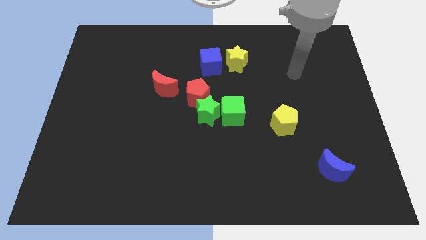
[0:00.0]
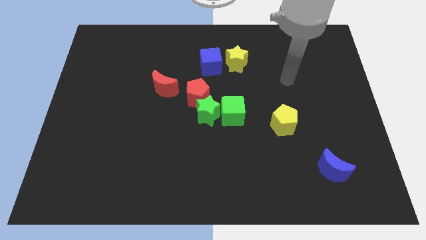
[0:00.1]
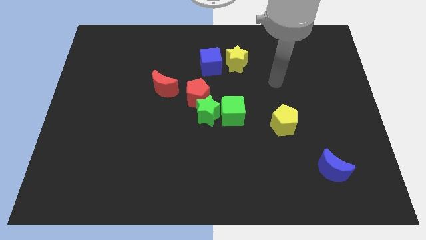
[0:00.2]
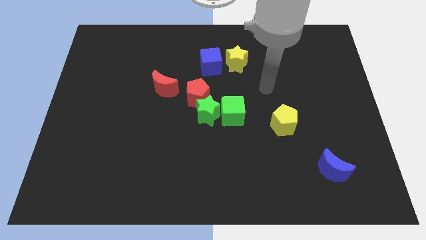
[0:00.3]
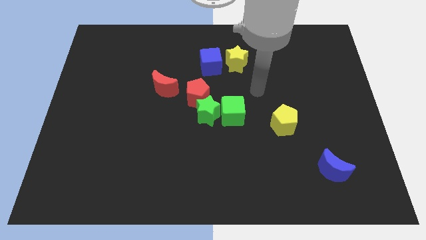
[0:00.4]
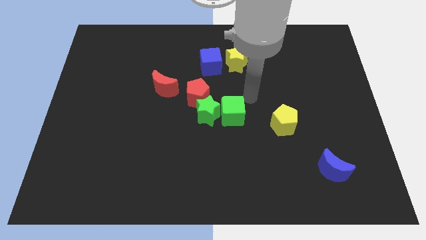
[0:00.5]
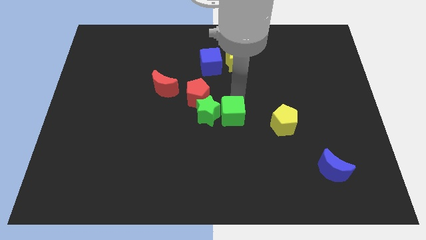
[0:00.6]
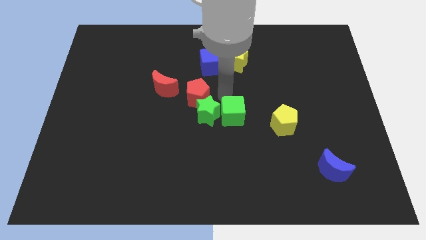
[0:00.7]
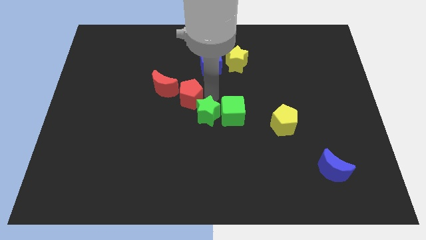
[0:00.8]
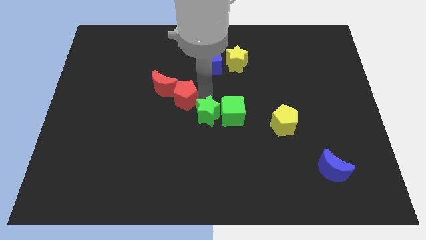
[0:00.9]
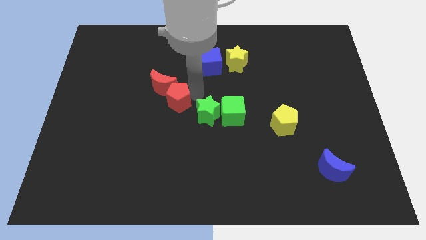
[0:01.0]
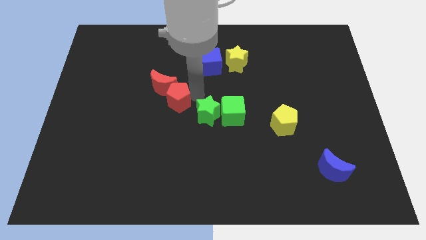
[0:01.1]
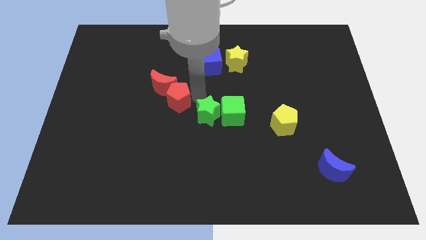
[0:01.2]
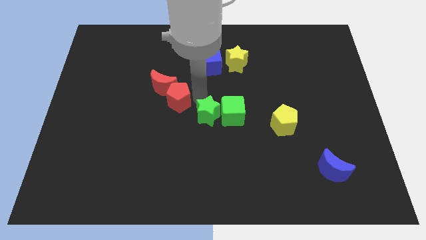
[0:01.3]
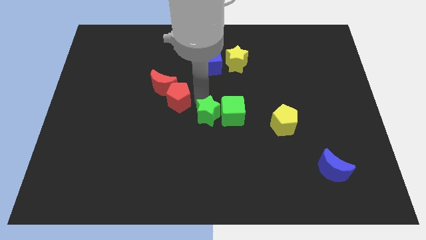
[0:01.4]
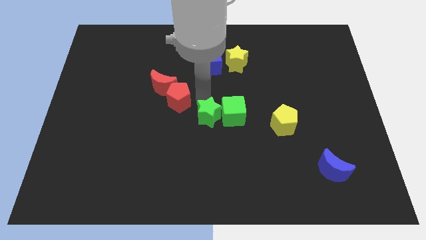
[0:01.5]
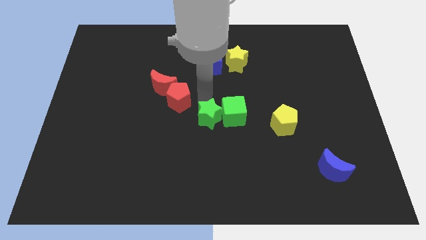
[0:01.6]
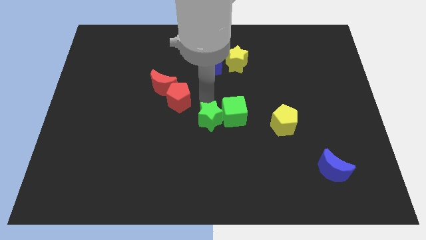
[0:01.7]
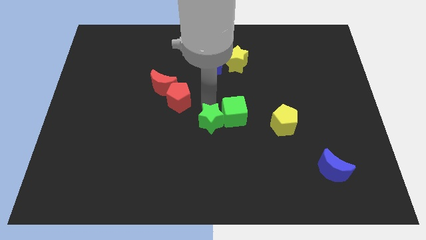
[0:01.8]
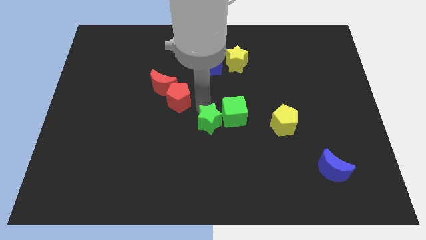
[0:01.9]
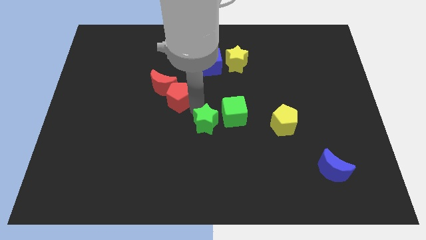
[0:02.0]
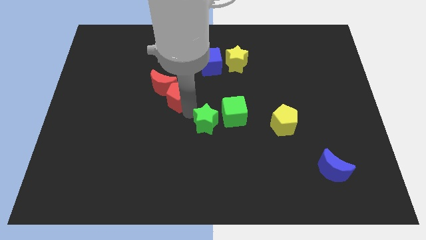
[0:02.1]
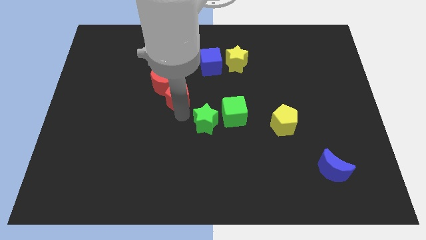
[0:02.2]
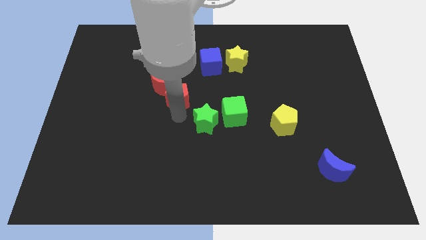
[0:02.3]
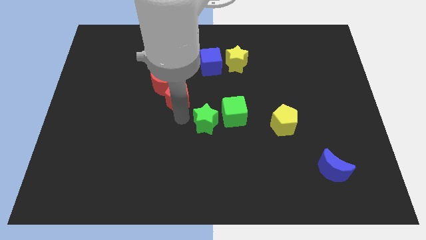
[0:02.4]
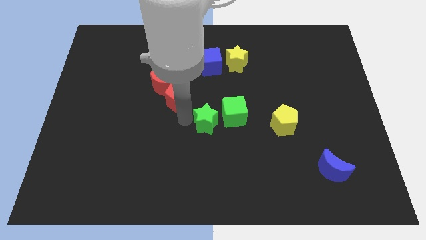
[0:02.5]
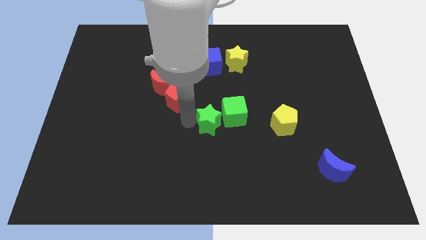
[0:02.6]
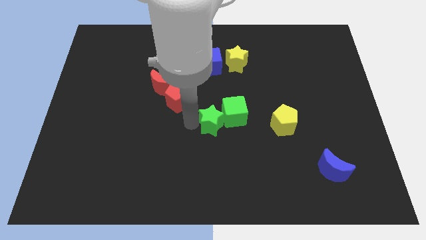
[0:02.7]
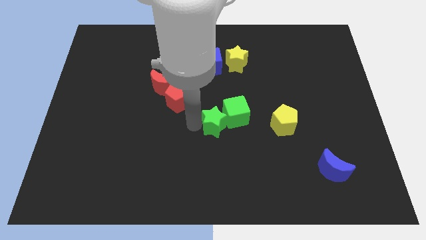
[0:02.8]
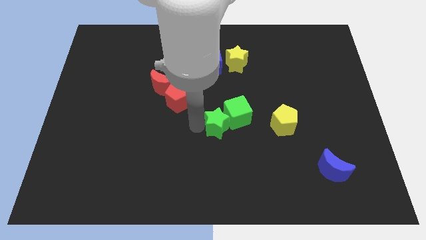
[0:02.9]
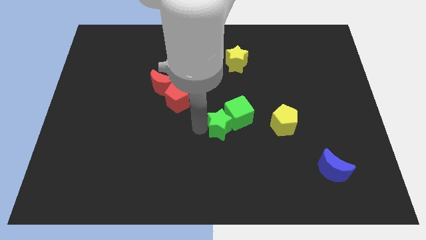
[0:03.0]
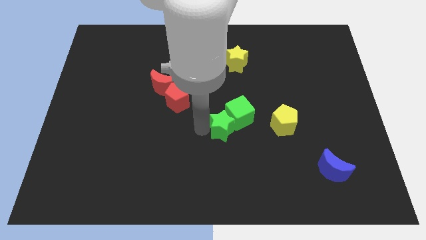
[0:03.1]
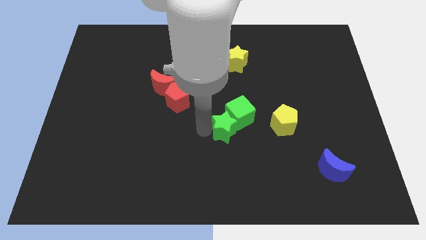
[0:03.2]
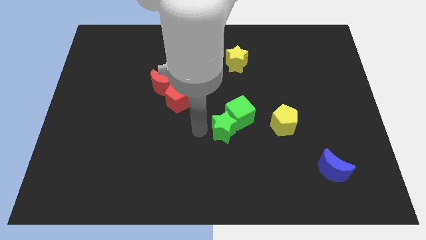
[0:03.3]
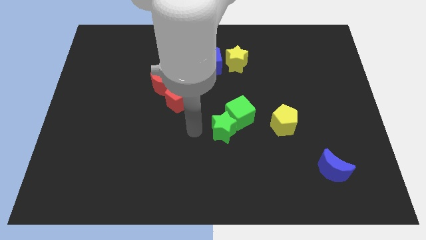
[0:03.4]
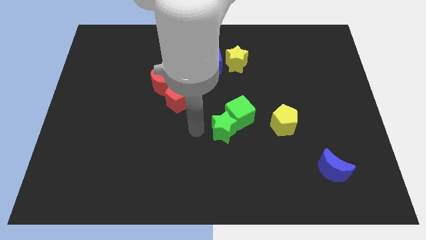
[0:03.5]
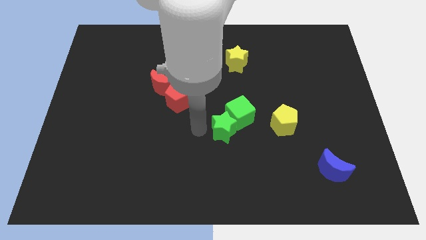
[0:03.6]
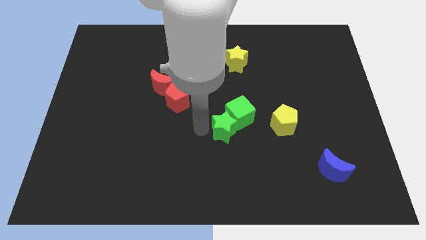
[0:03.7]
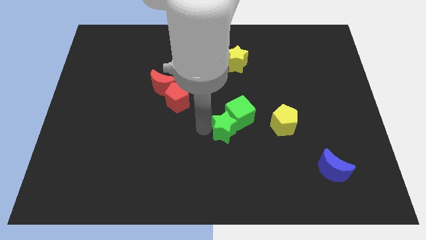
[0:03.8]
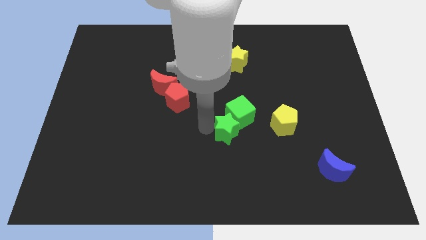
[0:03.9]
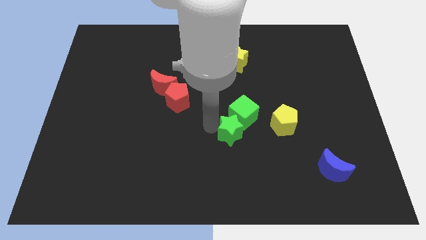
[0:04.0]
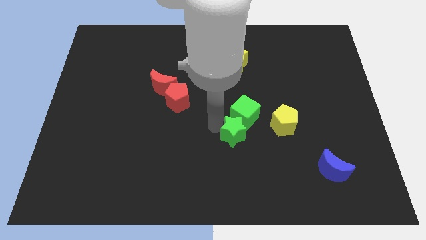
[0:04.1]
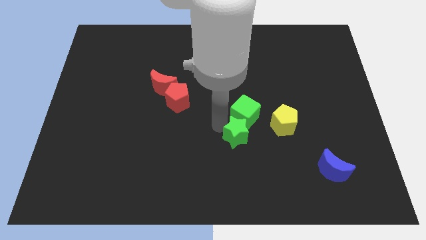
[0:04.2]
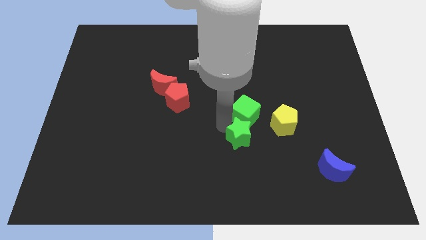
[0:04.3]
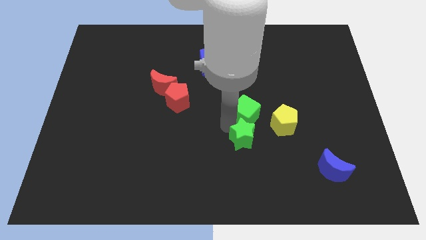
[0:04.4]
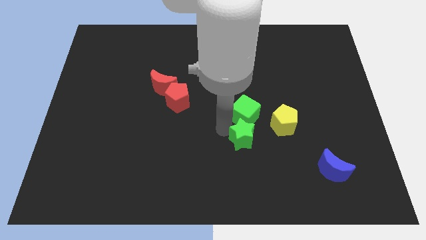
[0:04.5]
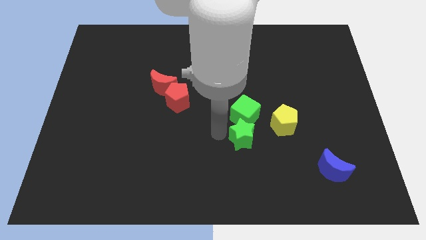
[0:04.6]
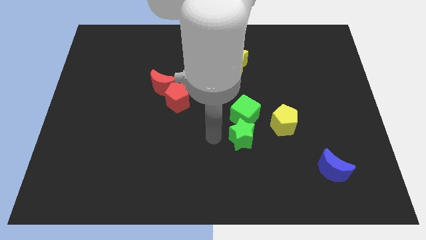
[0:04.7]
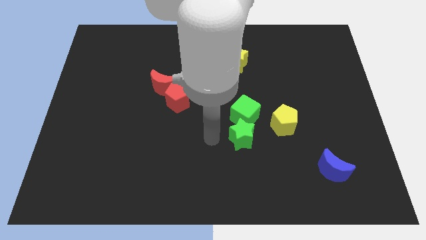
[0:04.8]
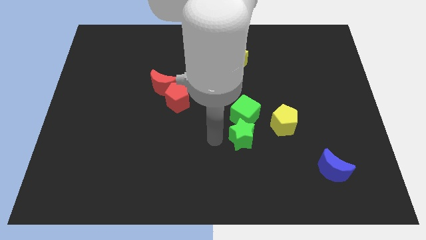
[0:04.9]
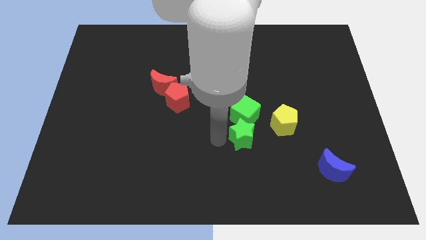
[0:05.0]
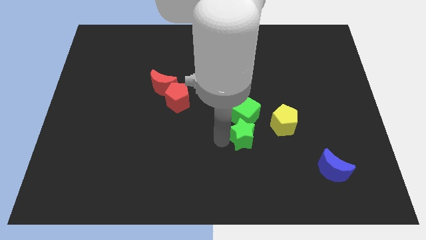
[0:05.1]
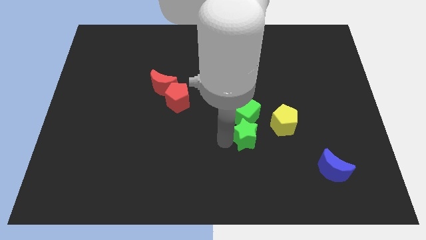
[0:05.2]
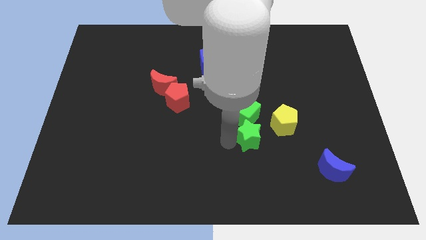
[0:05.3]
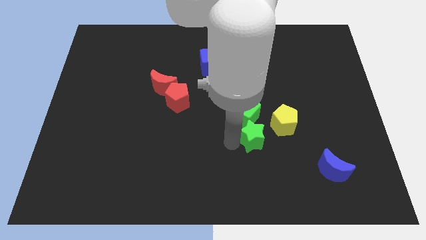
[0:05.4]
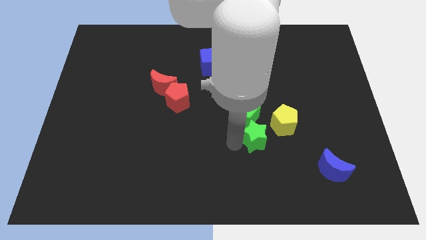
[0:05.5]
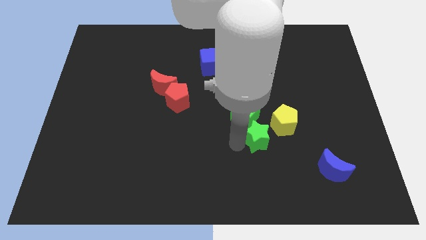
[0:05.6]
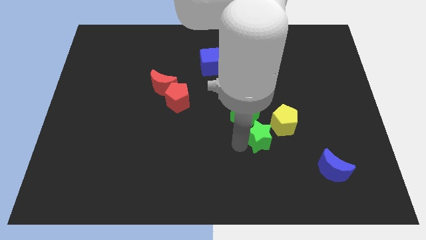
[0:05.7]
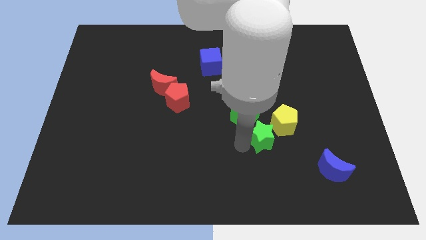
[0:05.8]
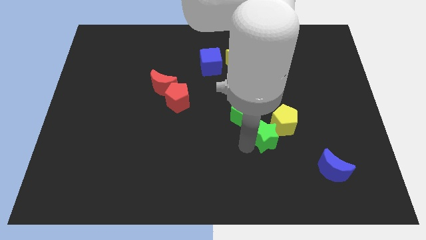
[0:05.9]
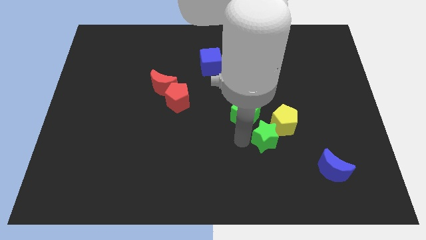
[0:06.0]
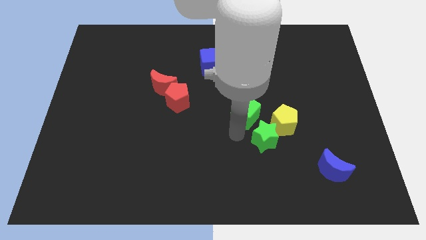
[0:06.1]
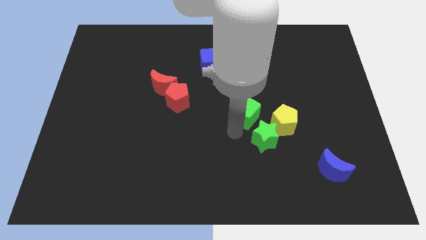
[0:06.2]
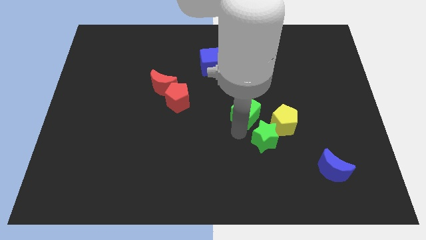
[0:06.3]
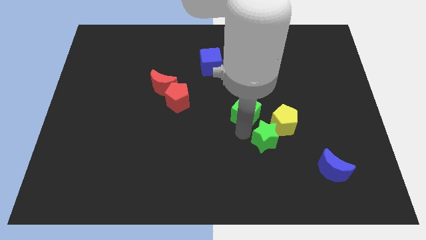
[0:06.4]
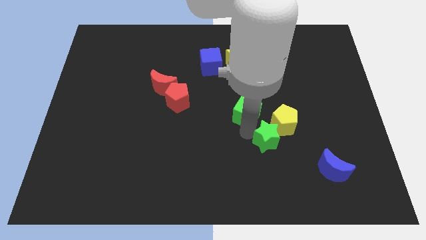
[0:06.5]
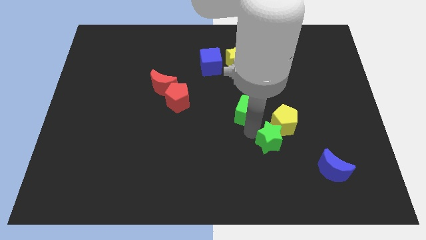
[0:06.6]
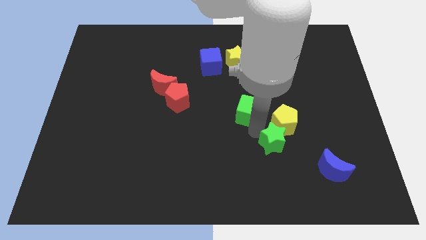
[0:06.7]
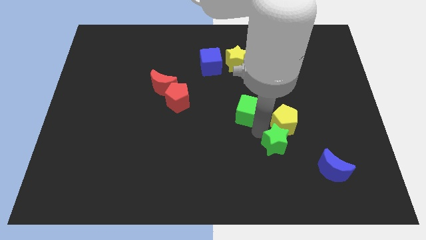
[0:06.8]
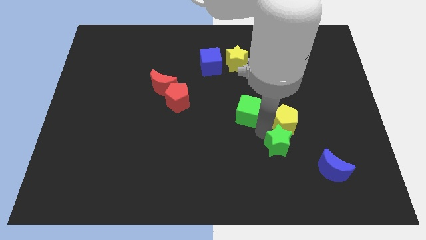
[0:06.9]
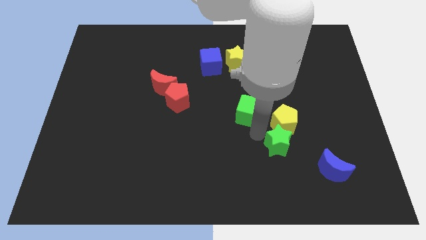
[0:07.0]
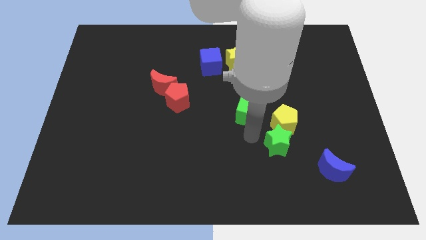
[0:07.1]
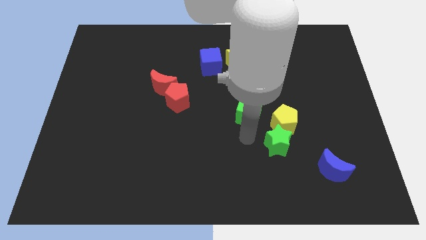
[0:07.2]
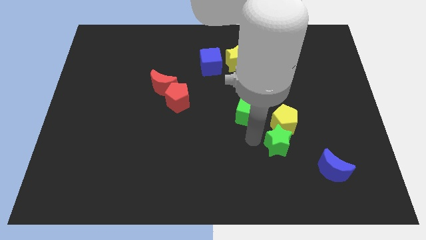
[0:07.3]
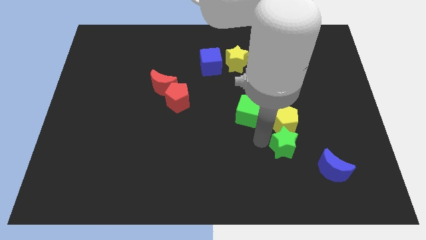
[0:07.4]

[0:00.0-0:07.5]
push the green star to the top left side of the blue moon

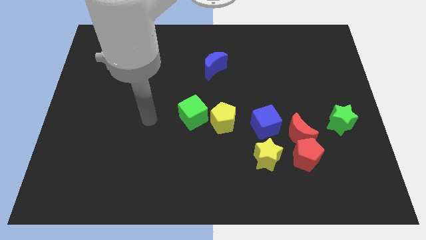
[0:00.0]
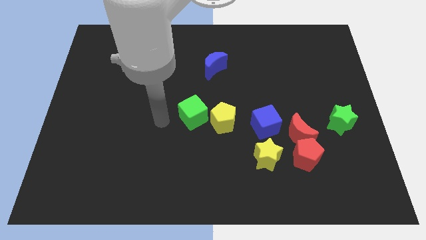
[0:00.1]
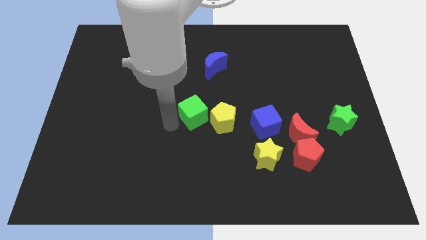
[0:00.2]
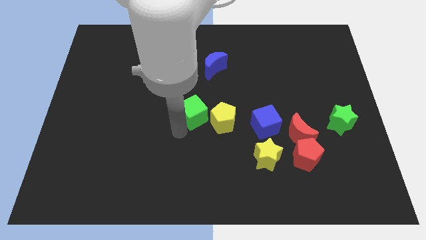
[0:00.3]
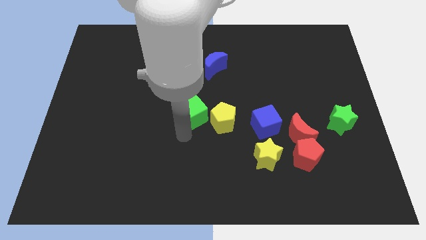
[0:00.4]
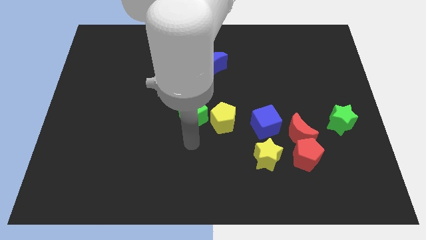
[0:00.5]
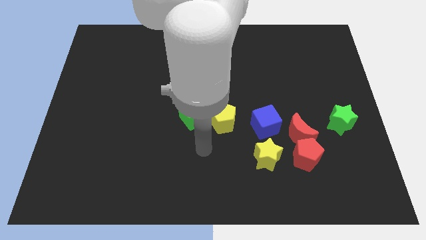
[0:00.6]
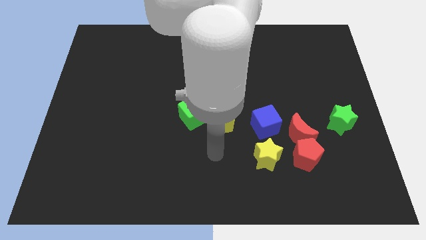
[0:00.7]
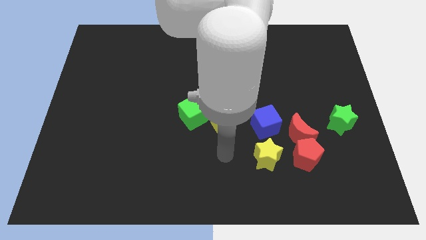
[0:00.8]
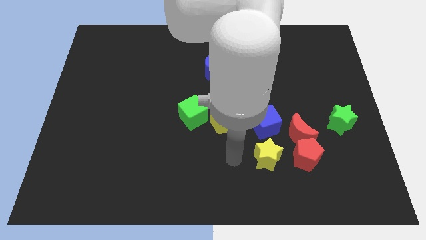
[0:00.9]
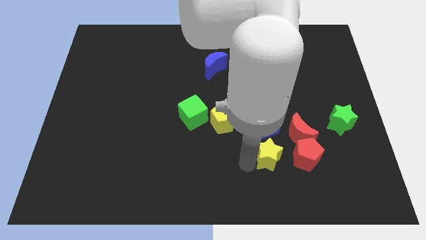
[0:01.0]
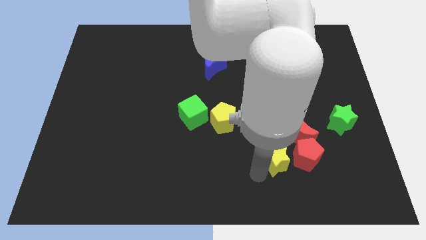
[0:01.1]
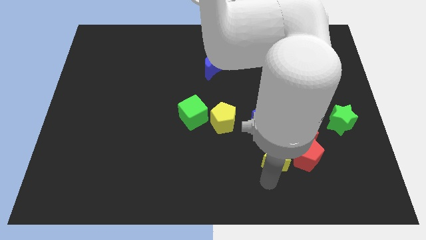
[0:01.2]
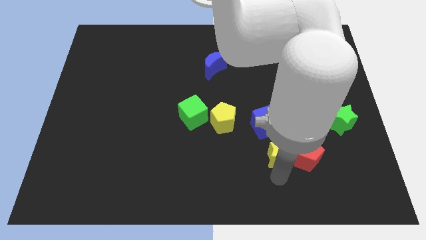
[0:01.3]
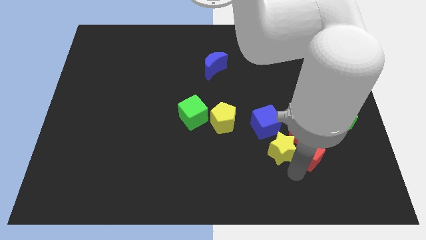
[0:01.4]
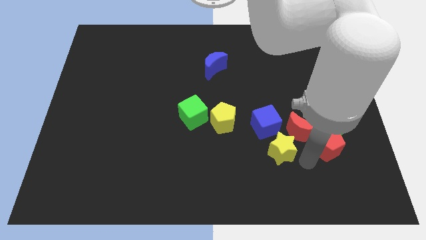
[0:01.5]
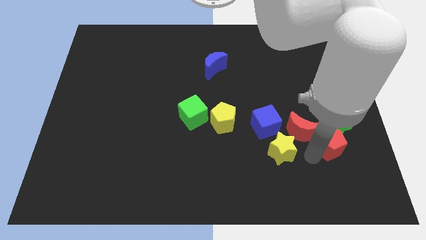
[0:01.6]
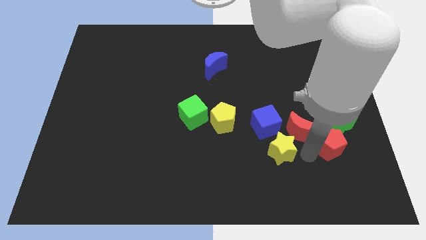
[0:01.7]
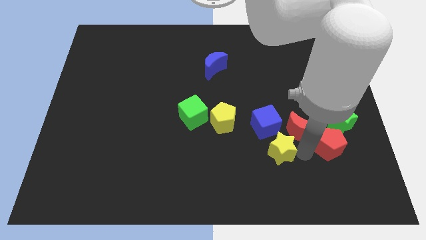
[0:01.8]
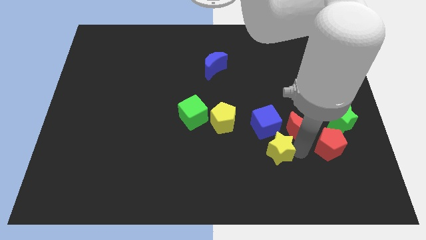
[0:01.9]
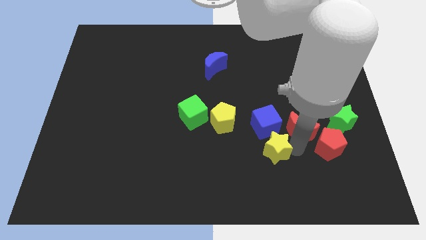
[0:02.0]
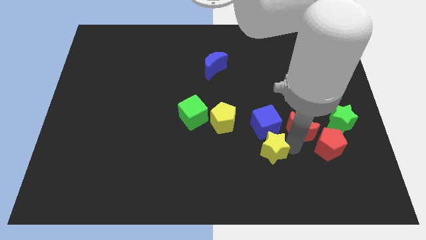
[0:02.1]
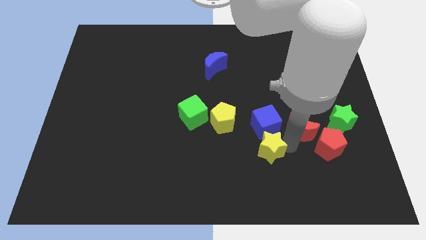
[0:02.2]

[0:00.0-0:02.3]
slide the yellow star to the bottom left of the blue cube
